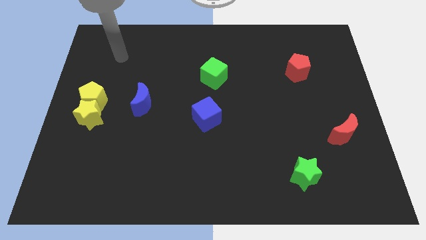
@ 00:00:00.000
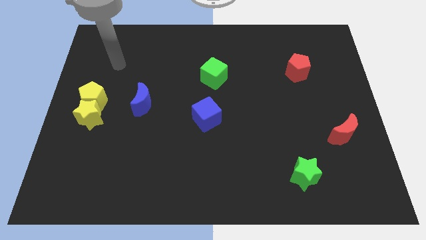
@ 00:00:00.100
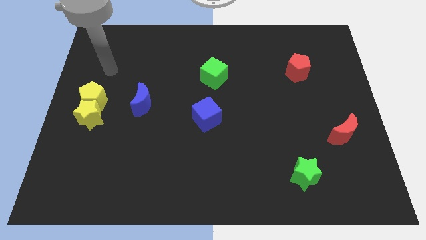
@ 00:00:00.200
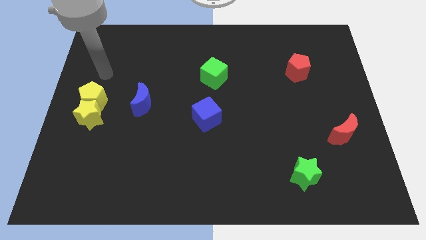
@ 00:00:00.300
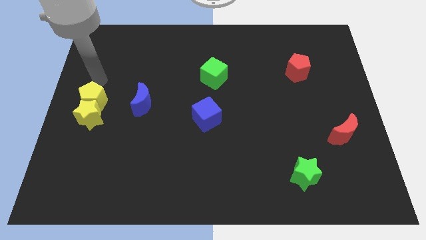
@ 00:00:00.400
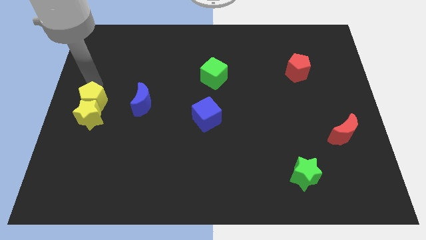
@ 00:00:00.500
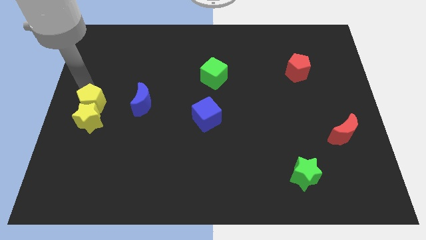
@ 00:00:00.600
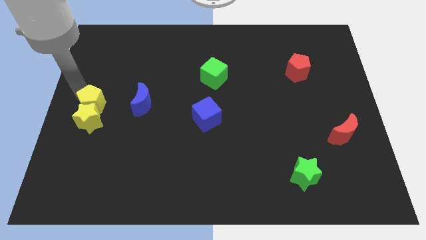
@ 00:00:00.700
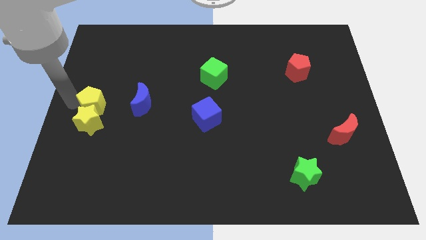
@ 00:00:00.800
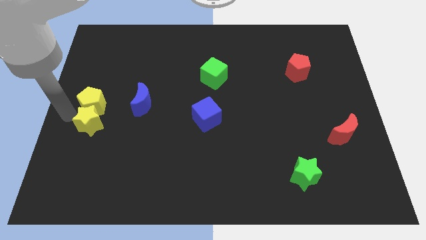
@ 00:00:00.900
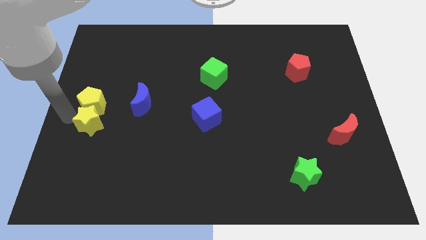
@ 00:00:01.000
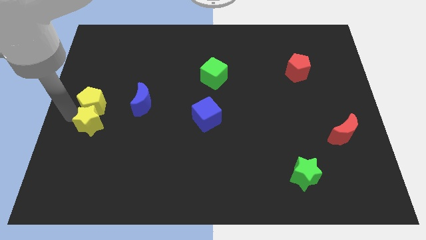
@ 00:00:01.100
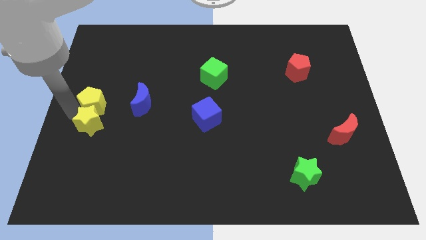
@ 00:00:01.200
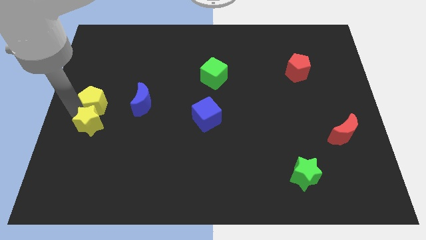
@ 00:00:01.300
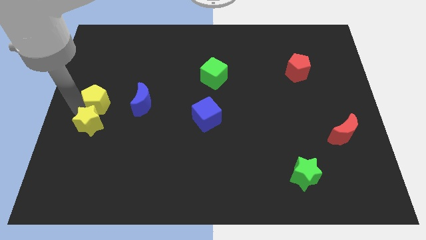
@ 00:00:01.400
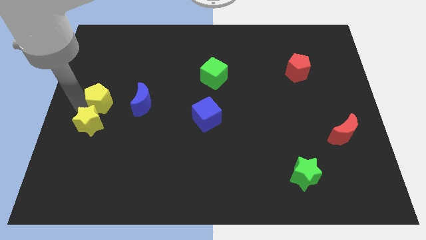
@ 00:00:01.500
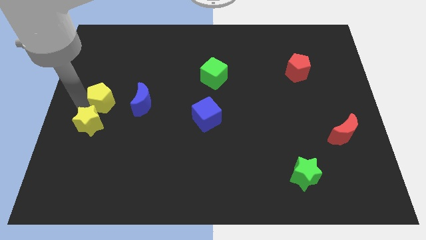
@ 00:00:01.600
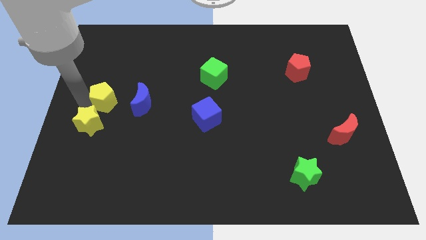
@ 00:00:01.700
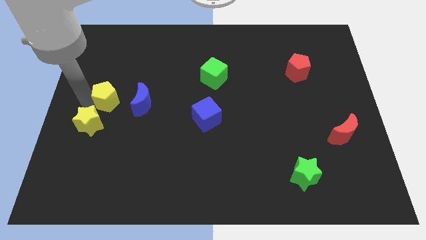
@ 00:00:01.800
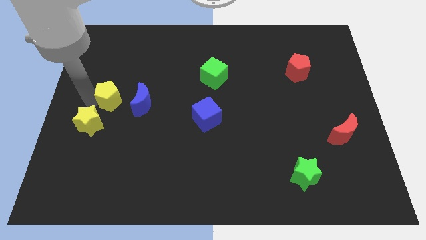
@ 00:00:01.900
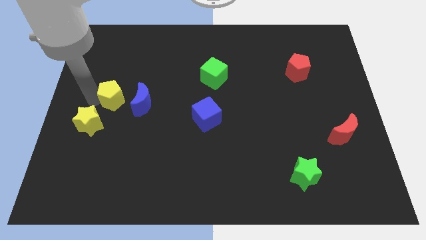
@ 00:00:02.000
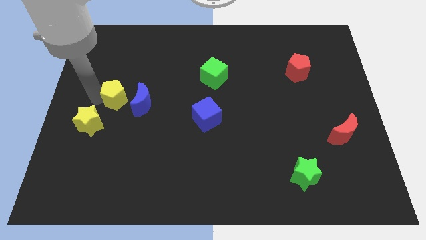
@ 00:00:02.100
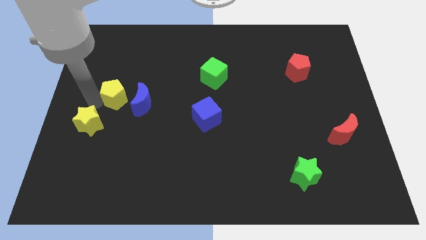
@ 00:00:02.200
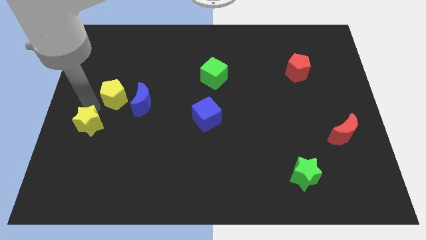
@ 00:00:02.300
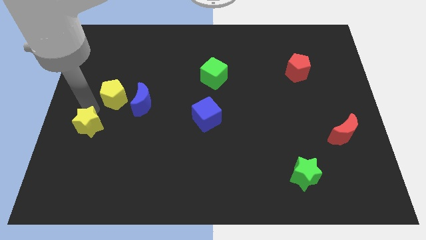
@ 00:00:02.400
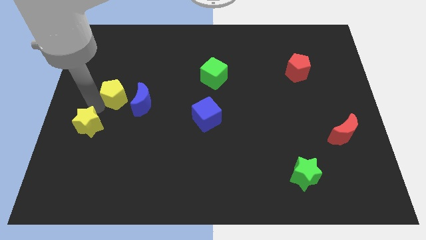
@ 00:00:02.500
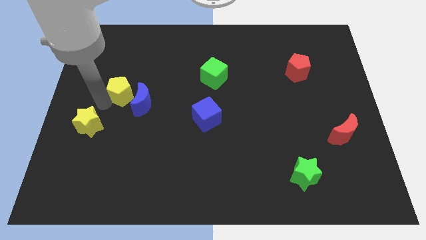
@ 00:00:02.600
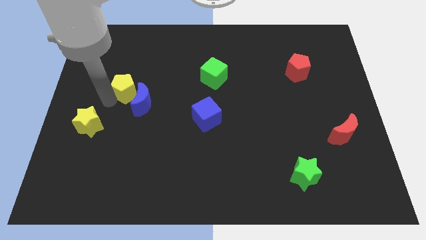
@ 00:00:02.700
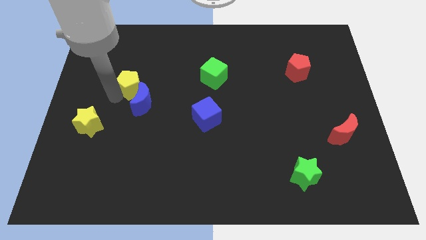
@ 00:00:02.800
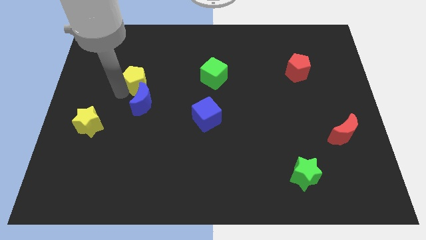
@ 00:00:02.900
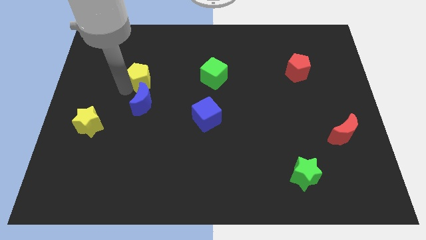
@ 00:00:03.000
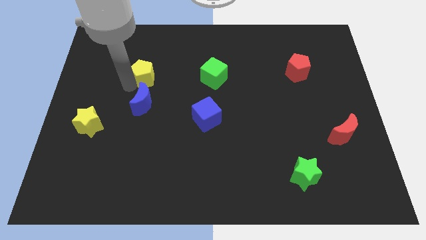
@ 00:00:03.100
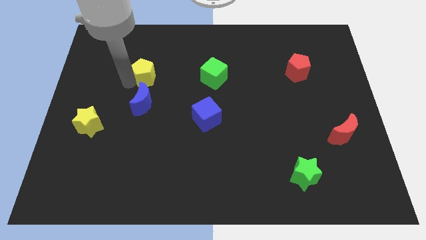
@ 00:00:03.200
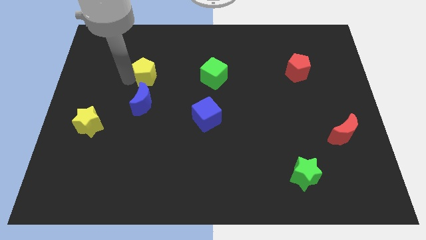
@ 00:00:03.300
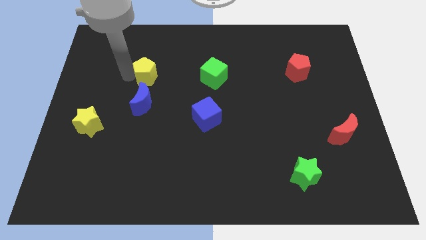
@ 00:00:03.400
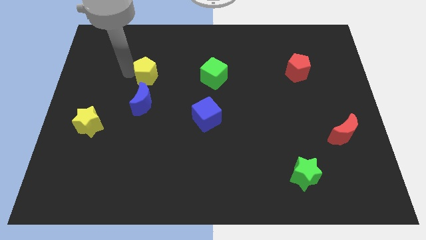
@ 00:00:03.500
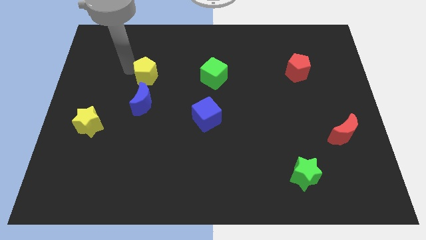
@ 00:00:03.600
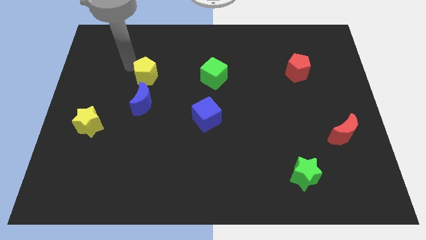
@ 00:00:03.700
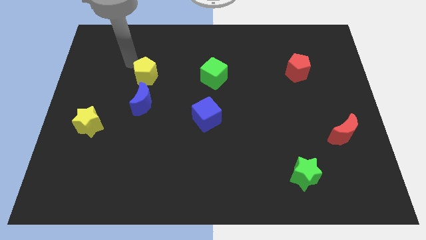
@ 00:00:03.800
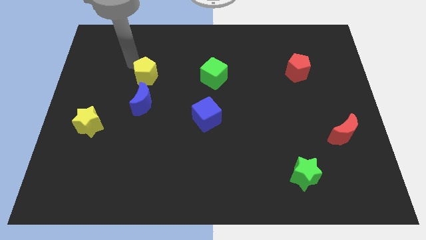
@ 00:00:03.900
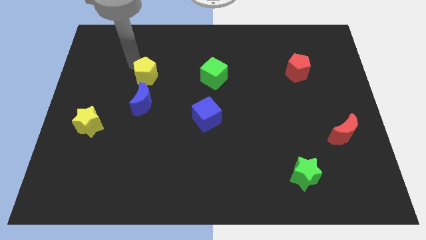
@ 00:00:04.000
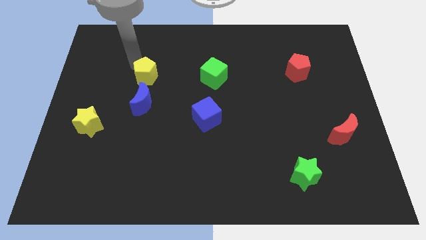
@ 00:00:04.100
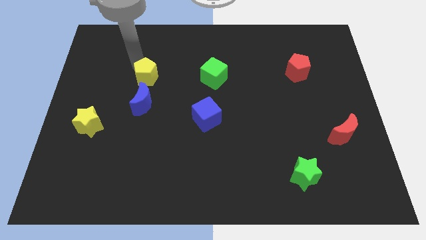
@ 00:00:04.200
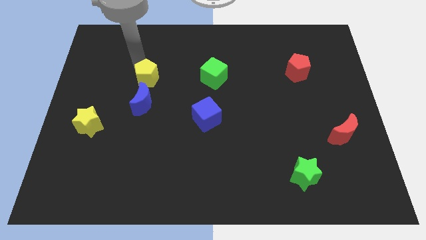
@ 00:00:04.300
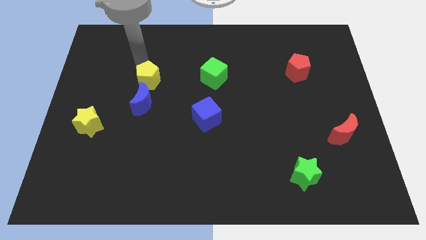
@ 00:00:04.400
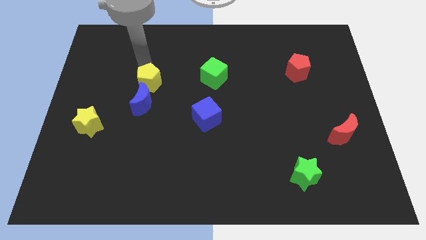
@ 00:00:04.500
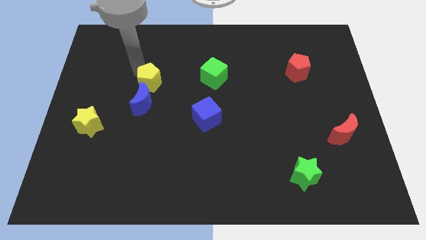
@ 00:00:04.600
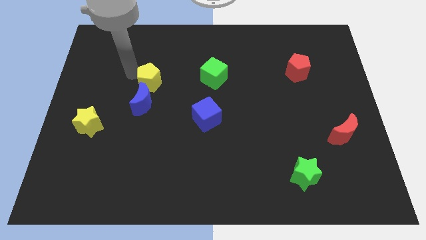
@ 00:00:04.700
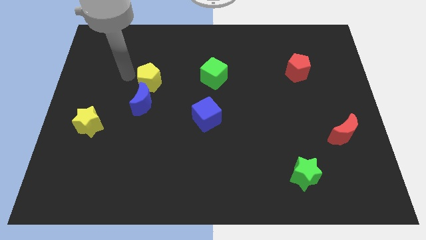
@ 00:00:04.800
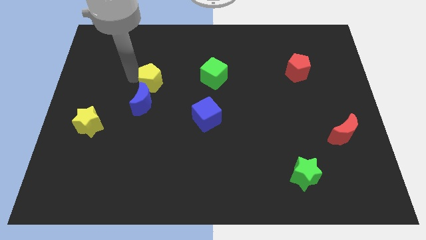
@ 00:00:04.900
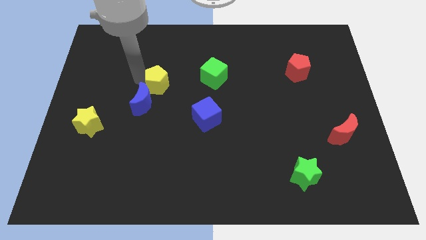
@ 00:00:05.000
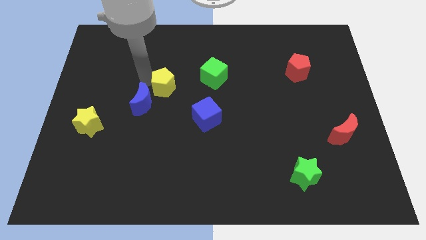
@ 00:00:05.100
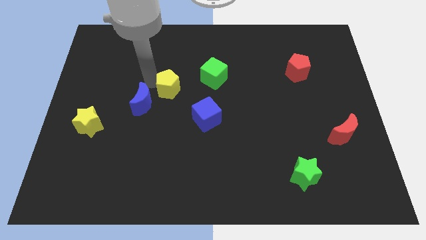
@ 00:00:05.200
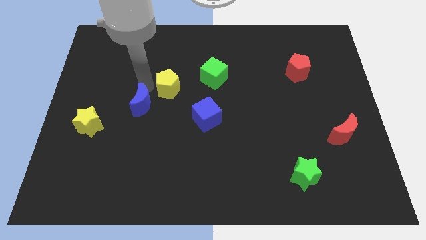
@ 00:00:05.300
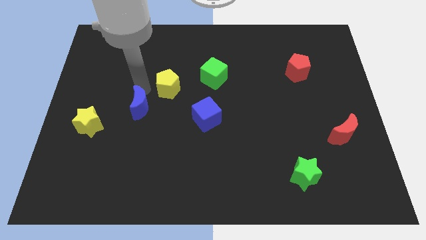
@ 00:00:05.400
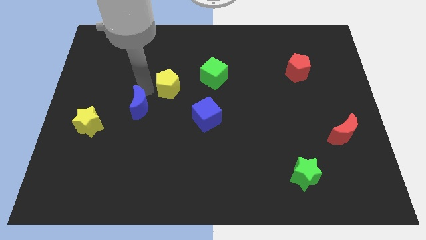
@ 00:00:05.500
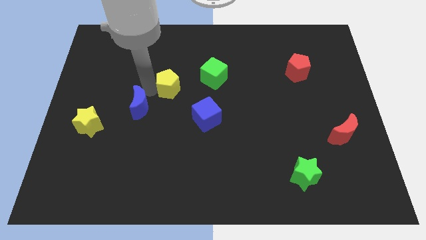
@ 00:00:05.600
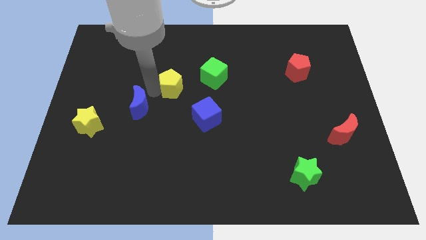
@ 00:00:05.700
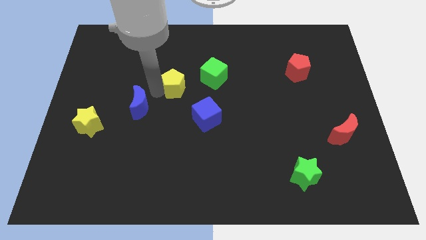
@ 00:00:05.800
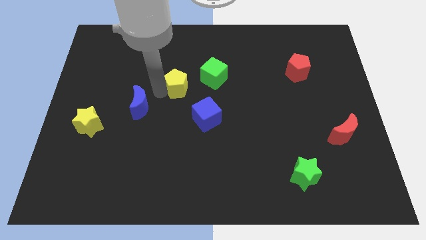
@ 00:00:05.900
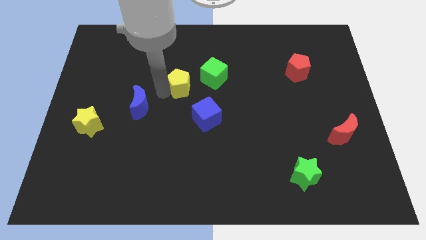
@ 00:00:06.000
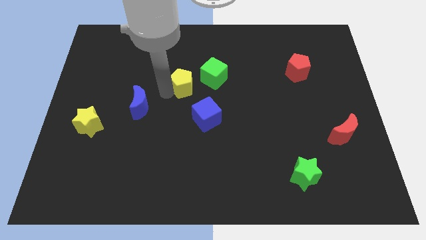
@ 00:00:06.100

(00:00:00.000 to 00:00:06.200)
slide the yellow pentagon right

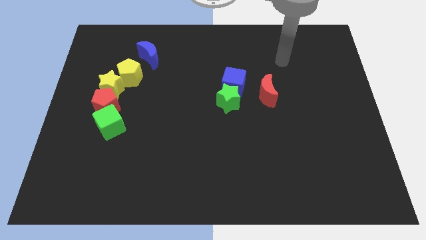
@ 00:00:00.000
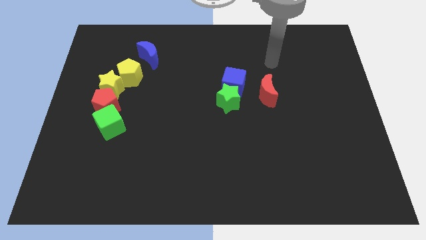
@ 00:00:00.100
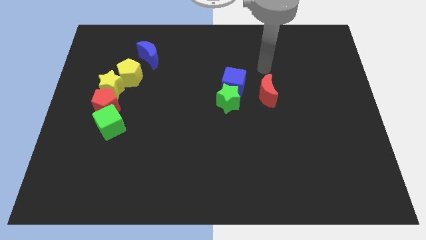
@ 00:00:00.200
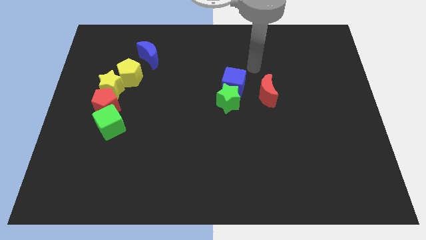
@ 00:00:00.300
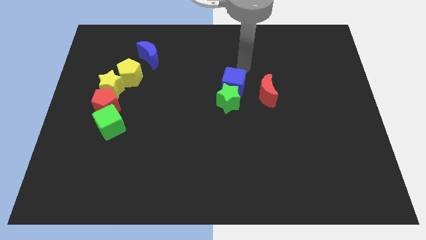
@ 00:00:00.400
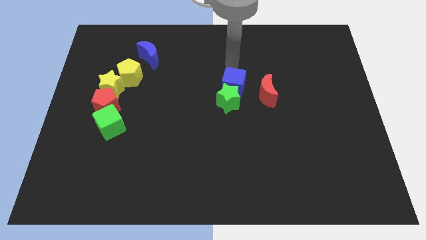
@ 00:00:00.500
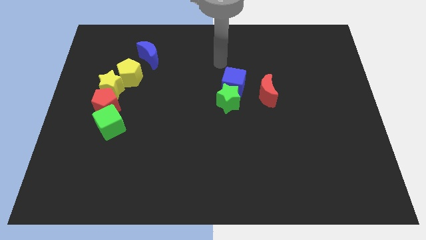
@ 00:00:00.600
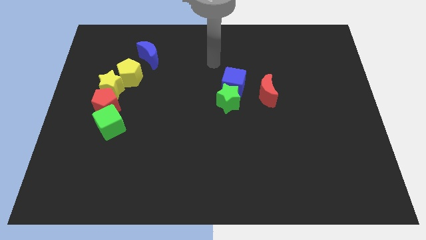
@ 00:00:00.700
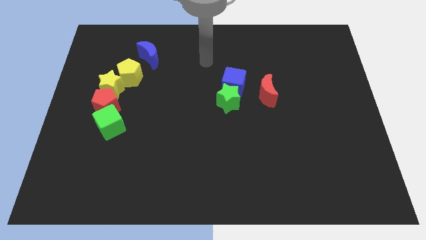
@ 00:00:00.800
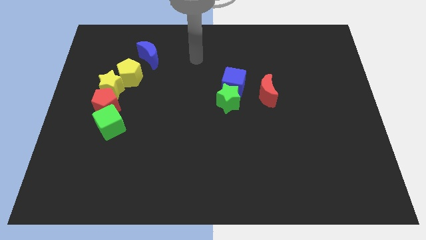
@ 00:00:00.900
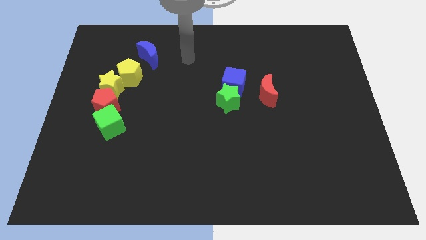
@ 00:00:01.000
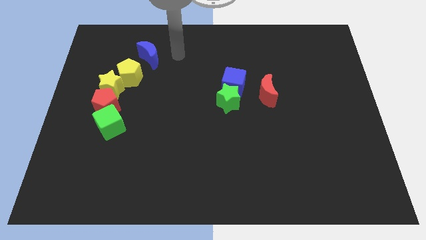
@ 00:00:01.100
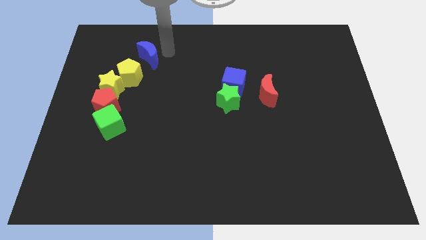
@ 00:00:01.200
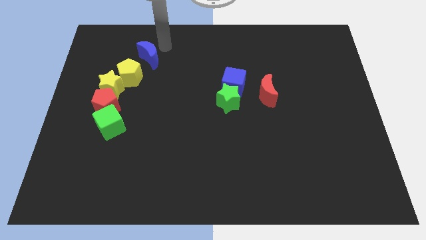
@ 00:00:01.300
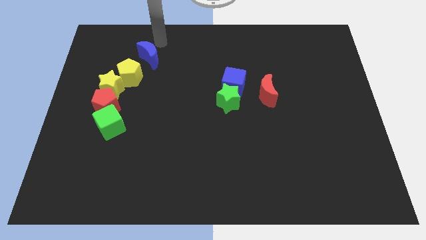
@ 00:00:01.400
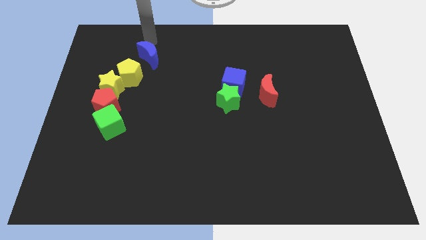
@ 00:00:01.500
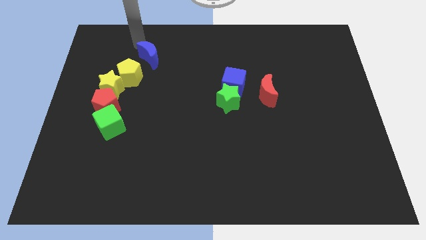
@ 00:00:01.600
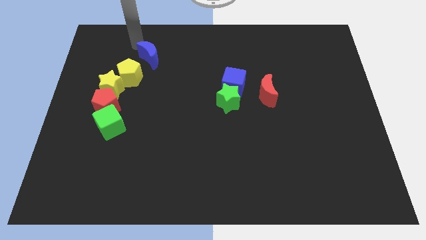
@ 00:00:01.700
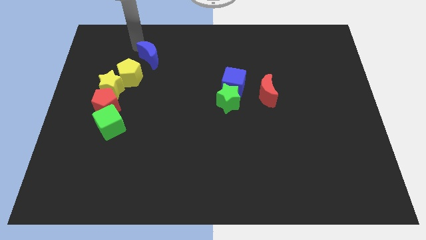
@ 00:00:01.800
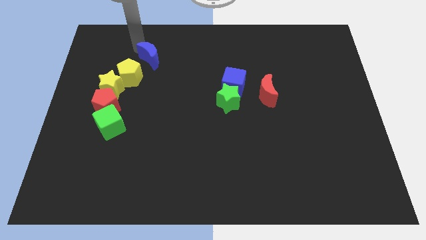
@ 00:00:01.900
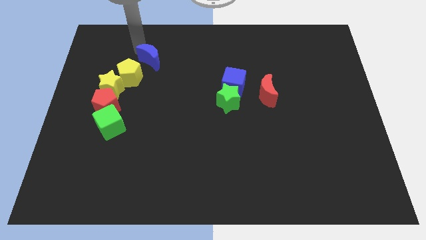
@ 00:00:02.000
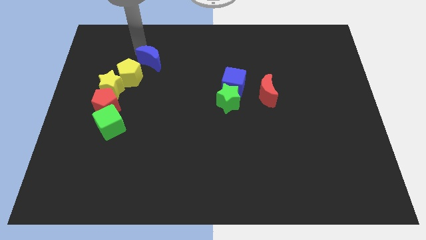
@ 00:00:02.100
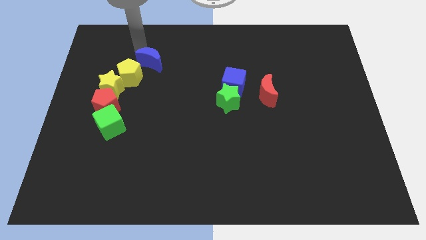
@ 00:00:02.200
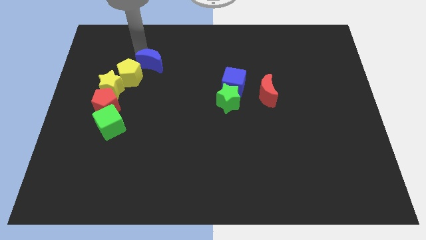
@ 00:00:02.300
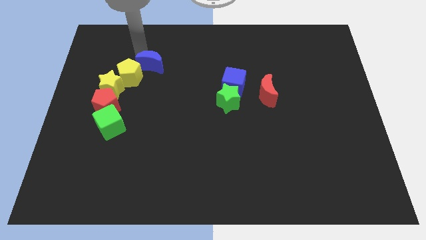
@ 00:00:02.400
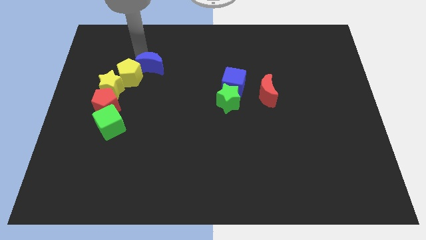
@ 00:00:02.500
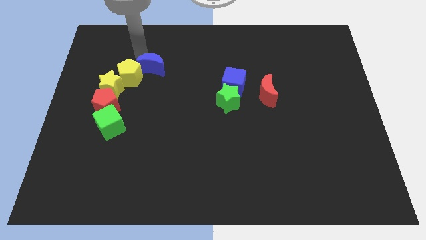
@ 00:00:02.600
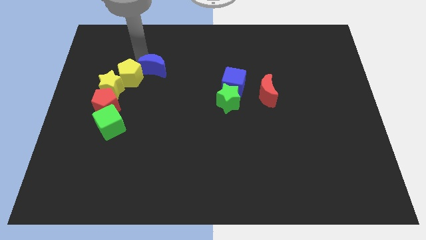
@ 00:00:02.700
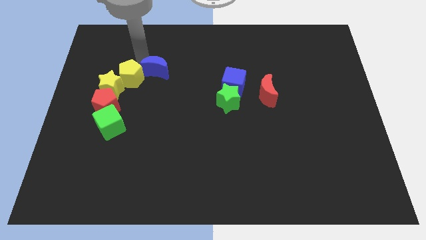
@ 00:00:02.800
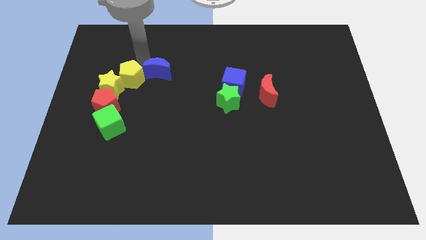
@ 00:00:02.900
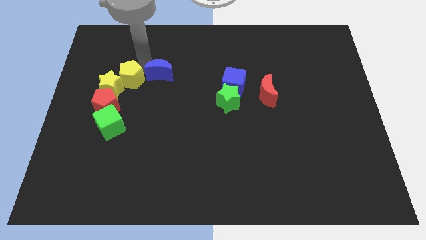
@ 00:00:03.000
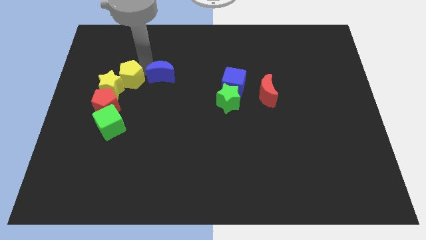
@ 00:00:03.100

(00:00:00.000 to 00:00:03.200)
slightly push the blue moon downwards and right
